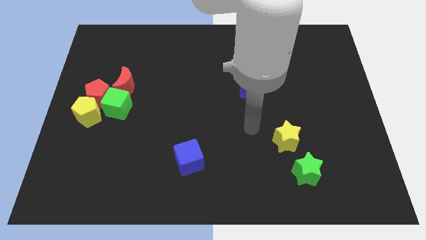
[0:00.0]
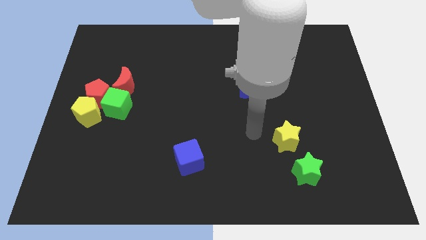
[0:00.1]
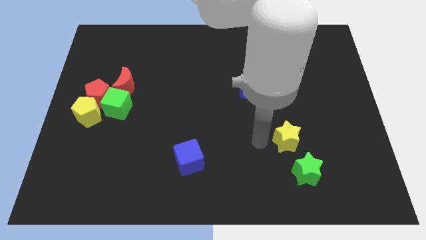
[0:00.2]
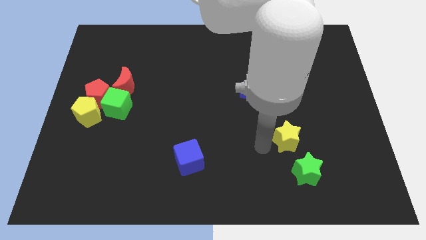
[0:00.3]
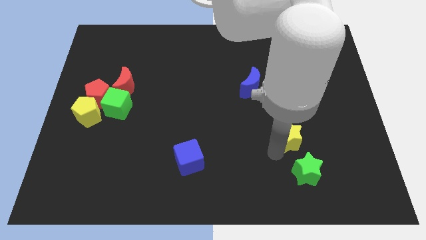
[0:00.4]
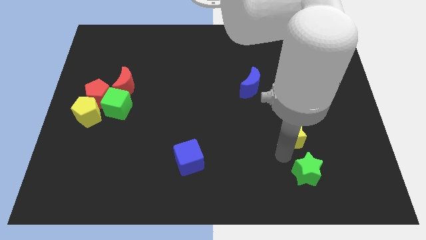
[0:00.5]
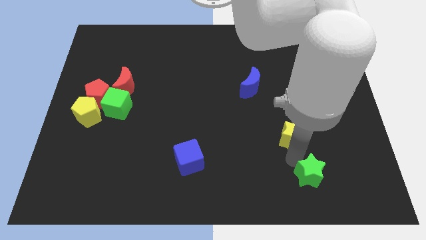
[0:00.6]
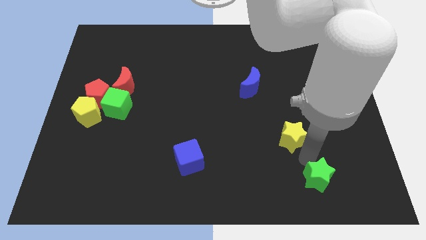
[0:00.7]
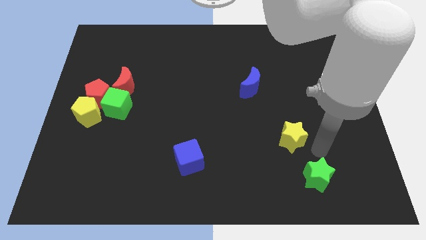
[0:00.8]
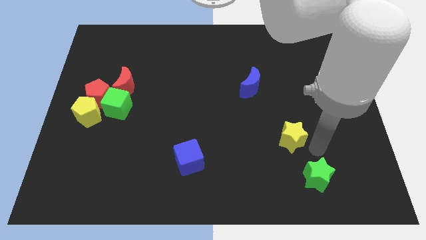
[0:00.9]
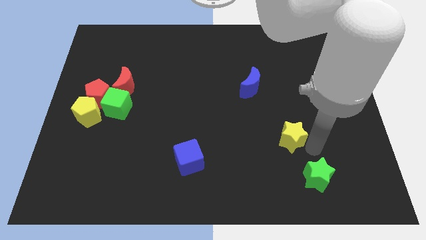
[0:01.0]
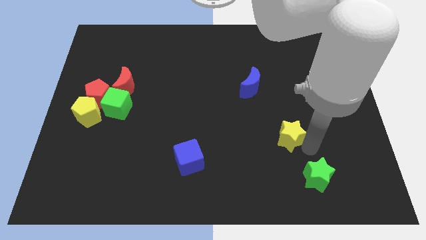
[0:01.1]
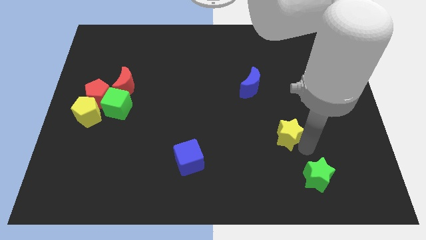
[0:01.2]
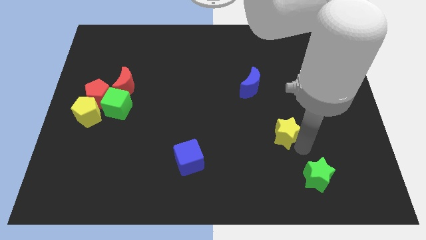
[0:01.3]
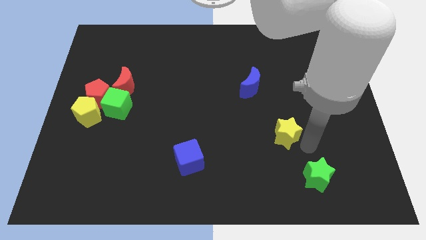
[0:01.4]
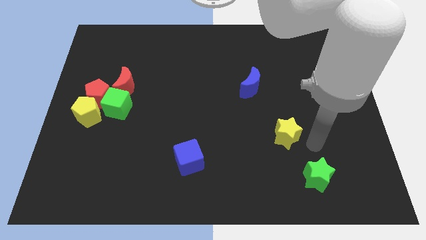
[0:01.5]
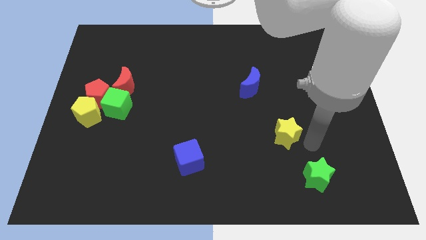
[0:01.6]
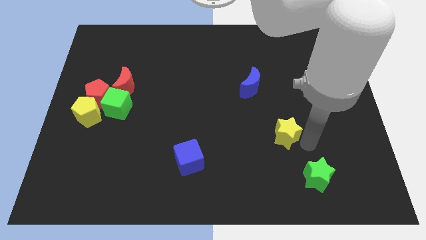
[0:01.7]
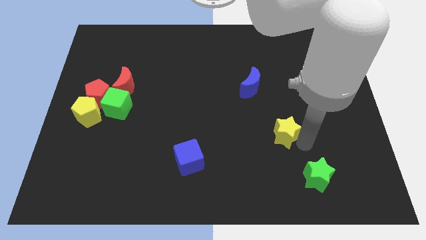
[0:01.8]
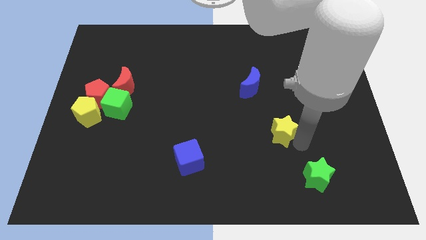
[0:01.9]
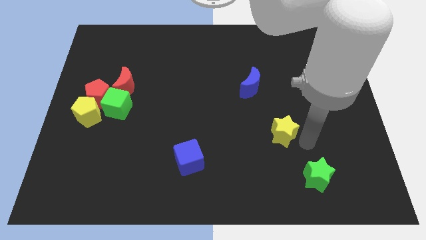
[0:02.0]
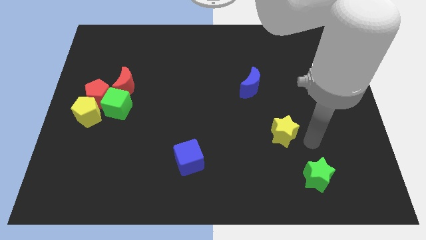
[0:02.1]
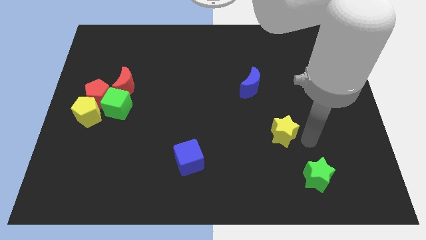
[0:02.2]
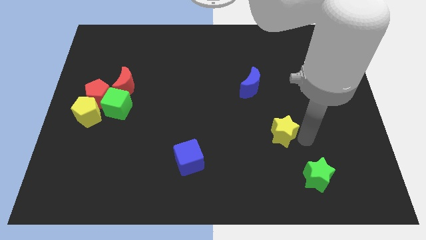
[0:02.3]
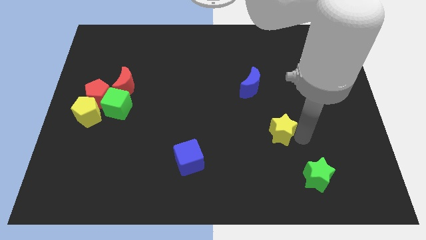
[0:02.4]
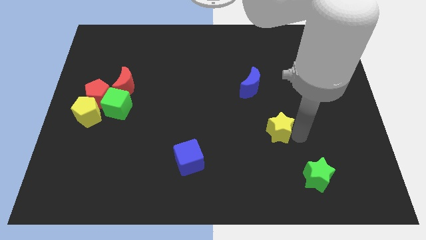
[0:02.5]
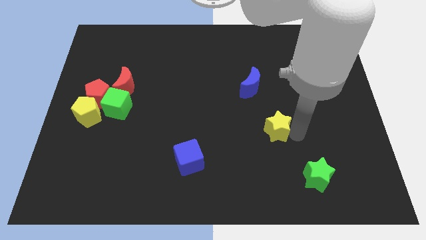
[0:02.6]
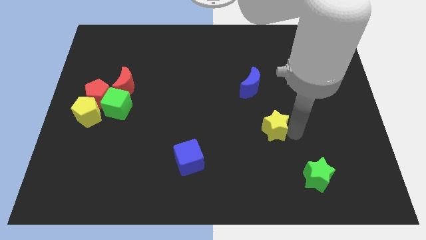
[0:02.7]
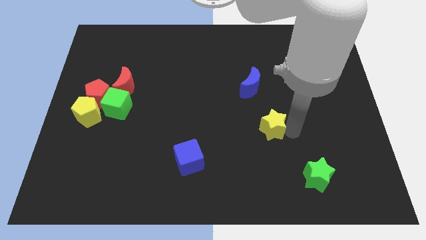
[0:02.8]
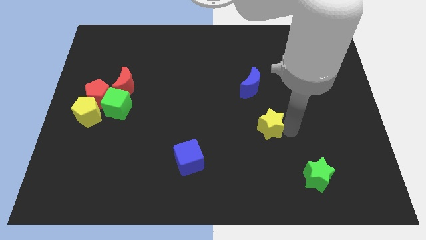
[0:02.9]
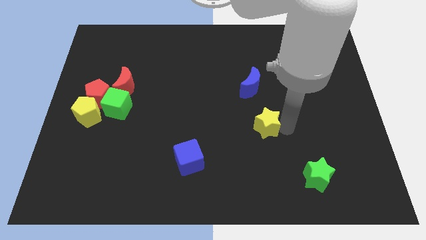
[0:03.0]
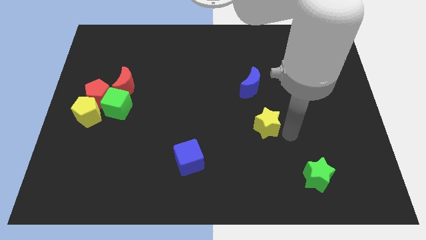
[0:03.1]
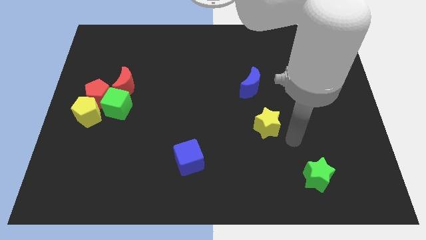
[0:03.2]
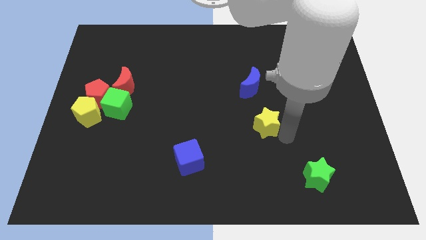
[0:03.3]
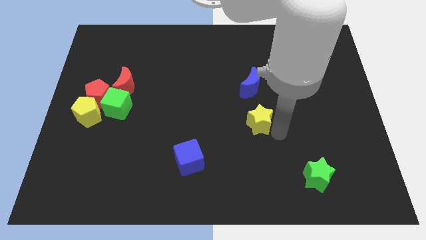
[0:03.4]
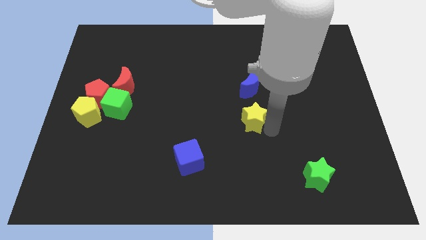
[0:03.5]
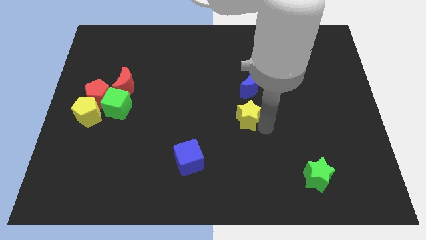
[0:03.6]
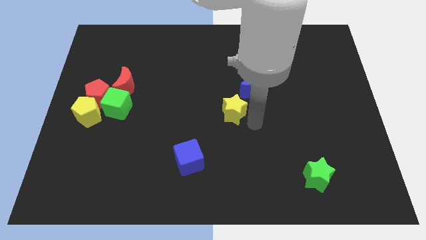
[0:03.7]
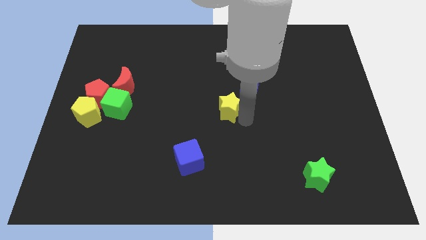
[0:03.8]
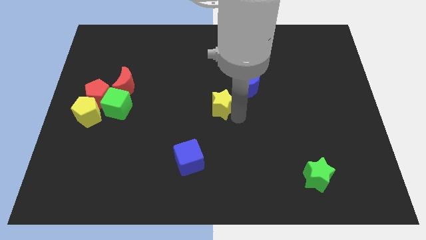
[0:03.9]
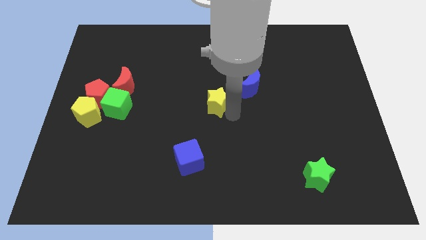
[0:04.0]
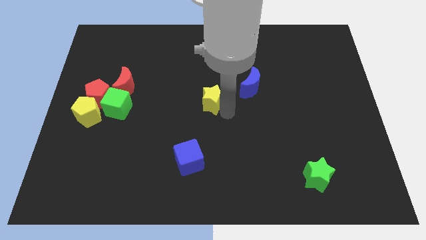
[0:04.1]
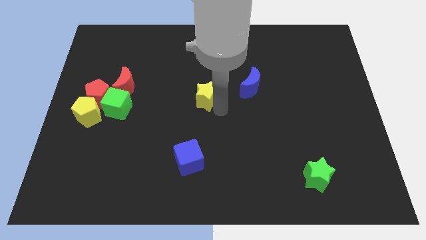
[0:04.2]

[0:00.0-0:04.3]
move the yellow star upwards and to the left

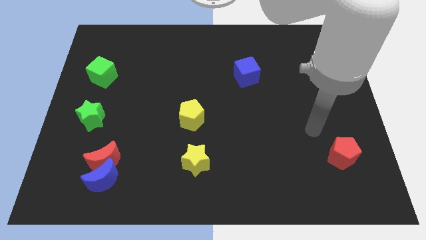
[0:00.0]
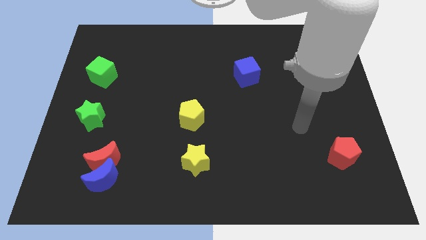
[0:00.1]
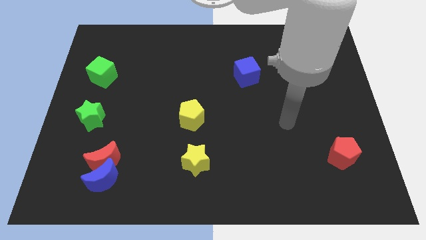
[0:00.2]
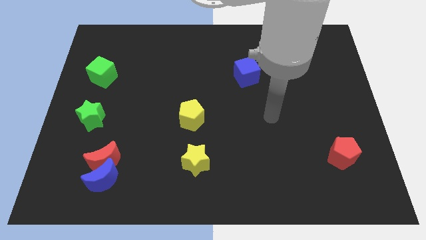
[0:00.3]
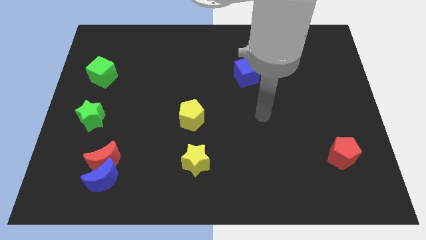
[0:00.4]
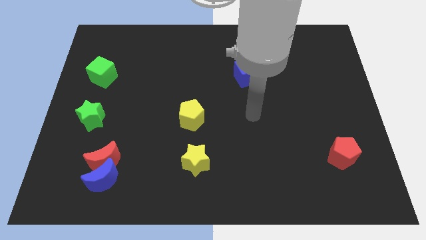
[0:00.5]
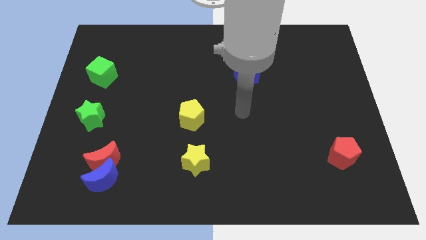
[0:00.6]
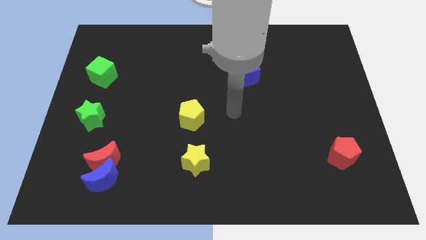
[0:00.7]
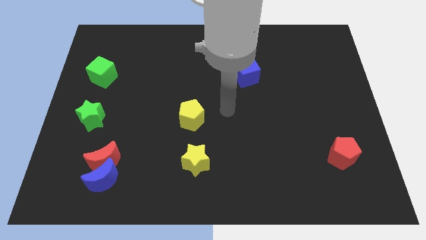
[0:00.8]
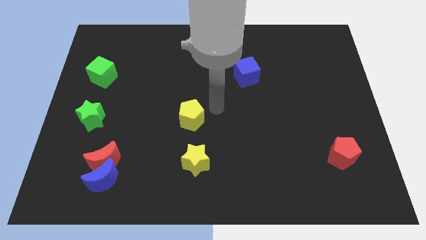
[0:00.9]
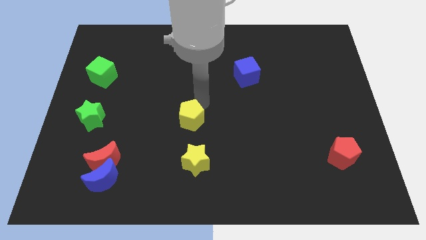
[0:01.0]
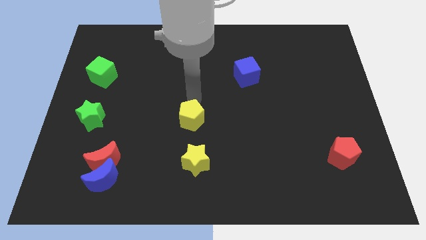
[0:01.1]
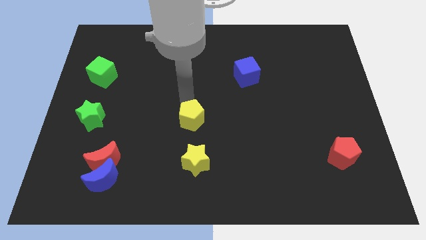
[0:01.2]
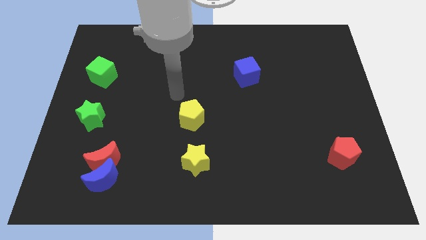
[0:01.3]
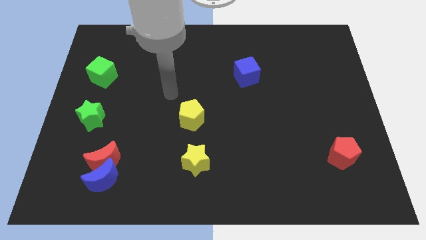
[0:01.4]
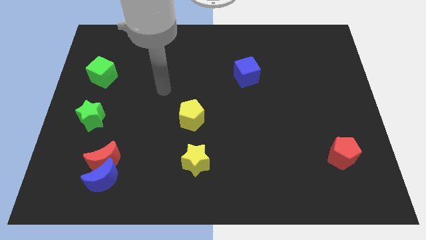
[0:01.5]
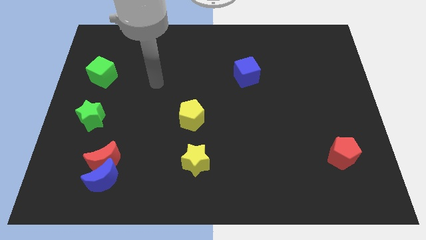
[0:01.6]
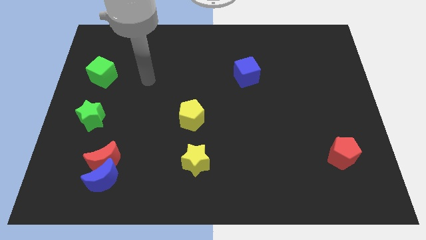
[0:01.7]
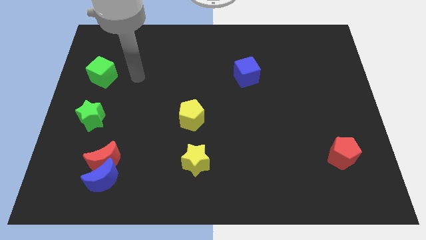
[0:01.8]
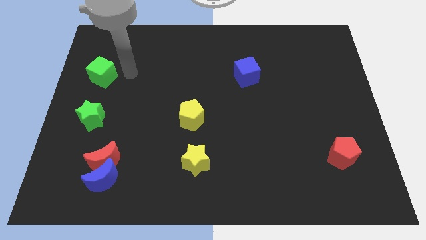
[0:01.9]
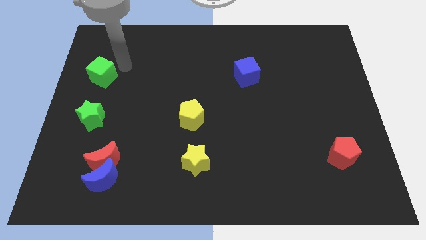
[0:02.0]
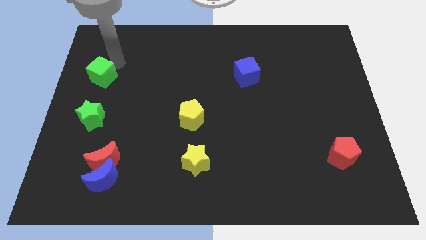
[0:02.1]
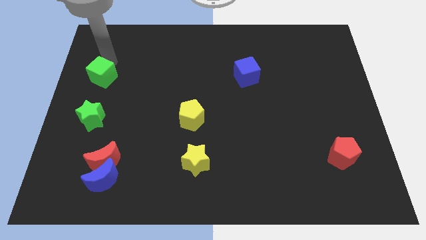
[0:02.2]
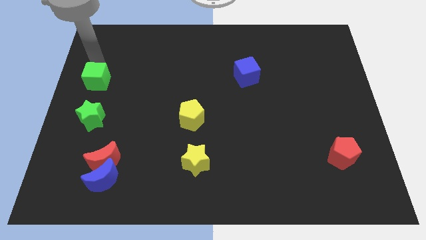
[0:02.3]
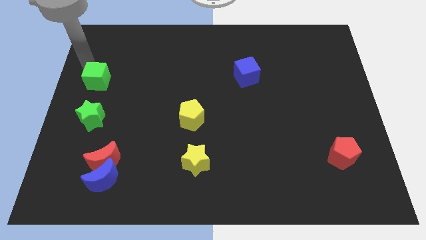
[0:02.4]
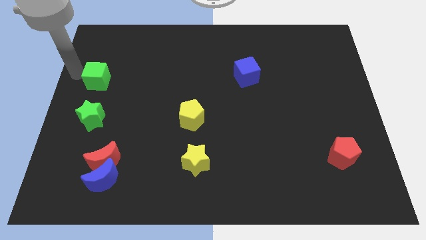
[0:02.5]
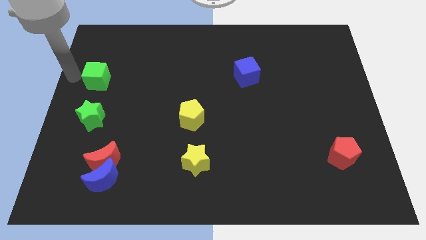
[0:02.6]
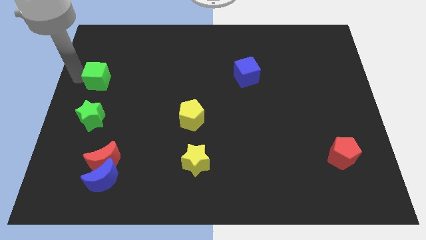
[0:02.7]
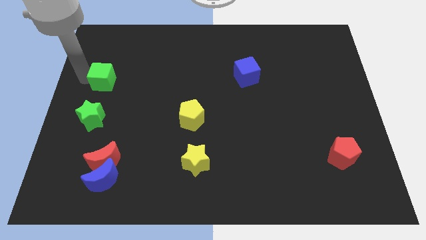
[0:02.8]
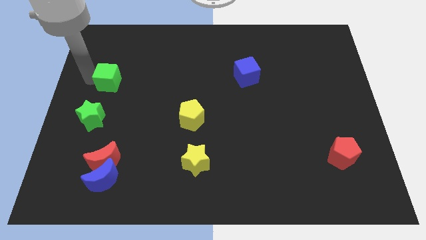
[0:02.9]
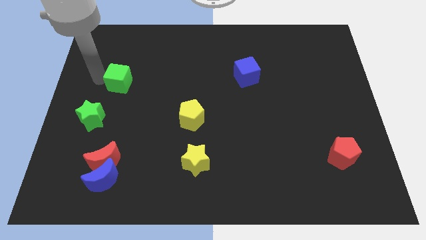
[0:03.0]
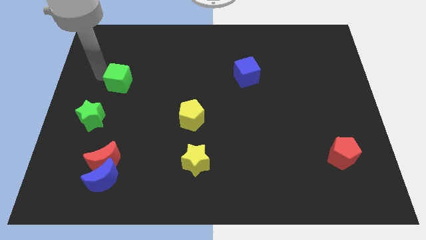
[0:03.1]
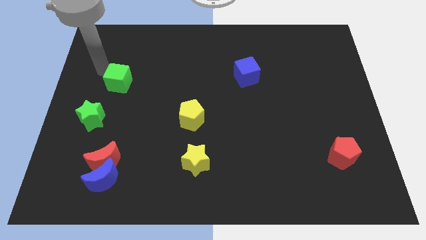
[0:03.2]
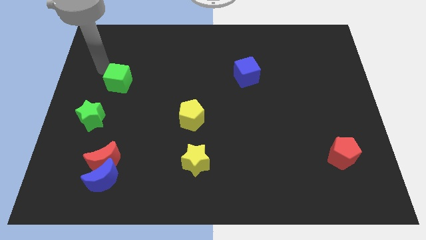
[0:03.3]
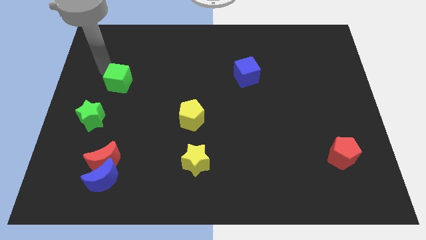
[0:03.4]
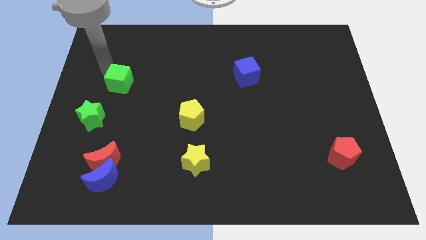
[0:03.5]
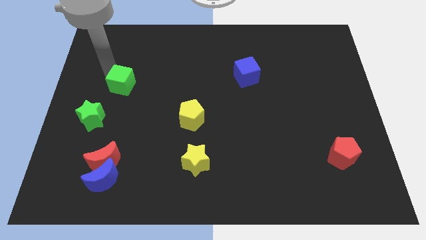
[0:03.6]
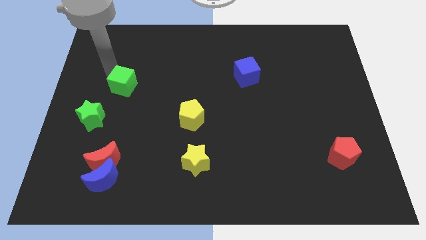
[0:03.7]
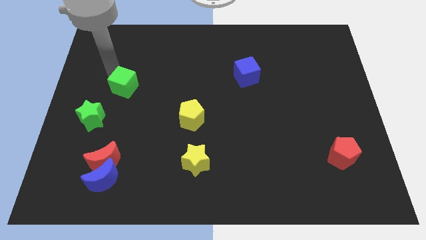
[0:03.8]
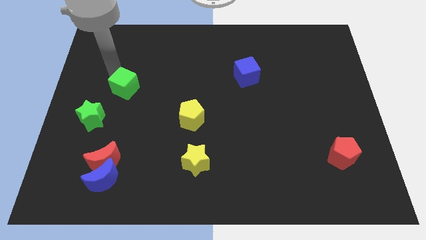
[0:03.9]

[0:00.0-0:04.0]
push the green cube a bit diagonally downwards and right
